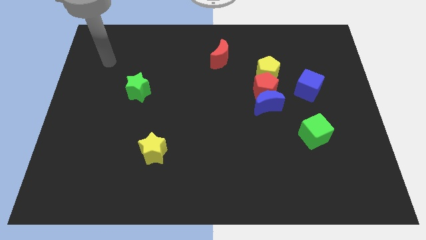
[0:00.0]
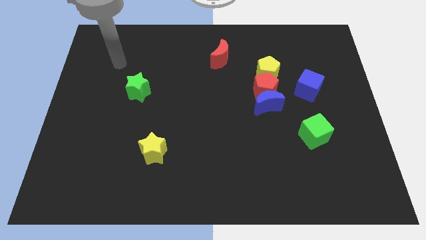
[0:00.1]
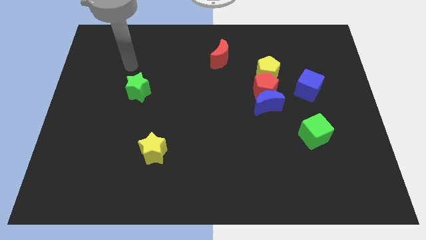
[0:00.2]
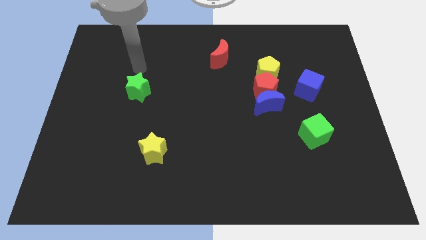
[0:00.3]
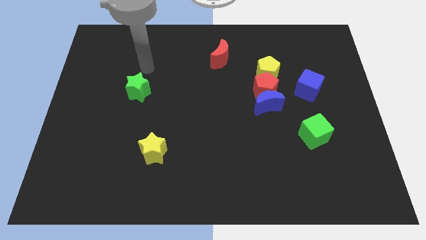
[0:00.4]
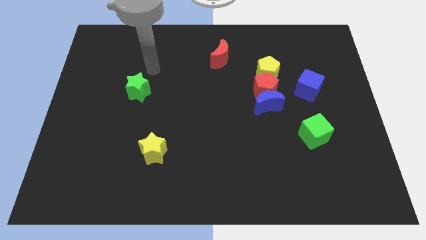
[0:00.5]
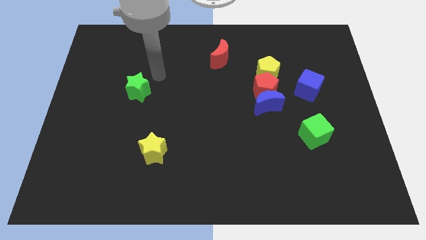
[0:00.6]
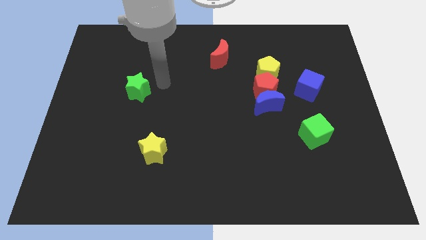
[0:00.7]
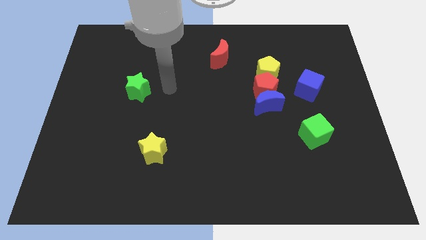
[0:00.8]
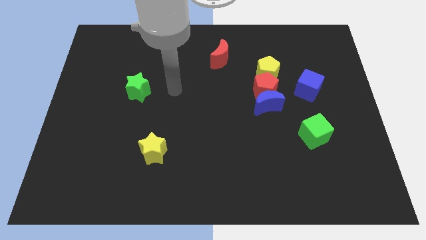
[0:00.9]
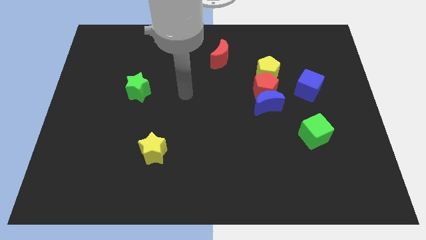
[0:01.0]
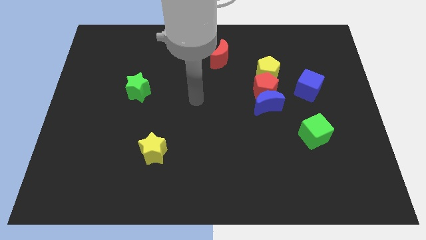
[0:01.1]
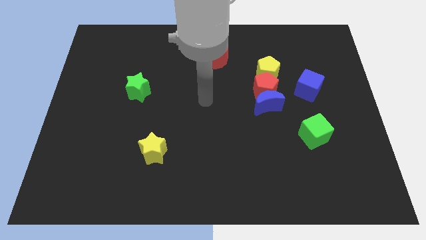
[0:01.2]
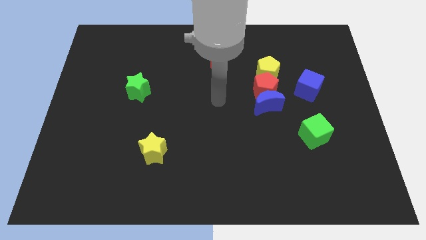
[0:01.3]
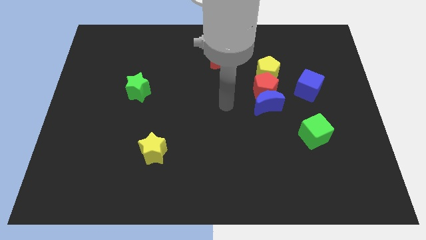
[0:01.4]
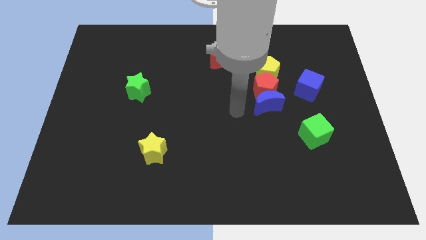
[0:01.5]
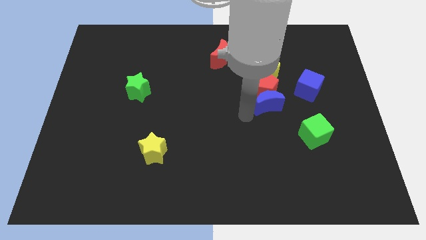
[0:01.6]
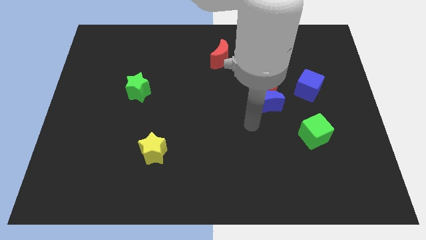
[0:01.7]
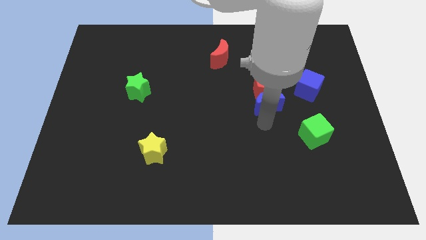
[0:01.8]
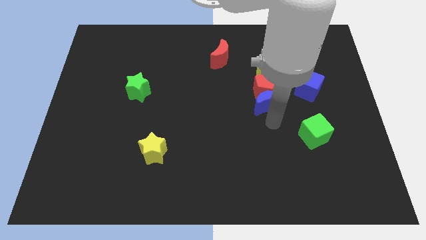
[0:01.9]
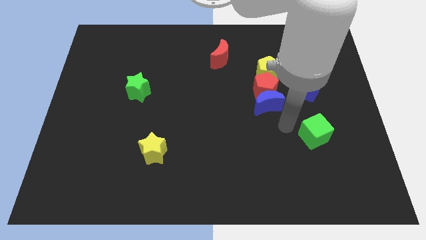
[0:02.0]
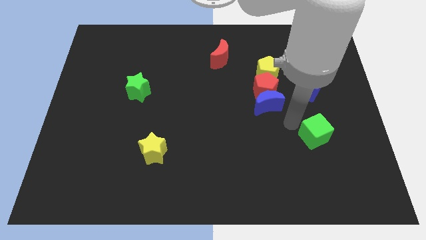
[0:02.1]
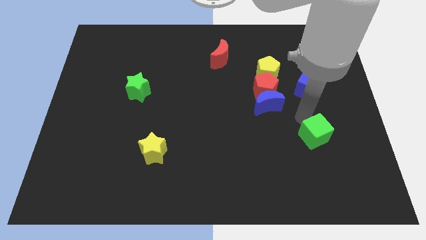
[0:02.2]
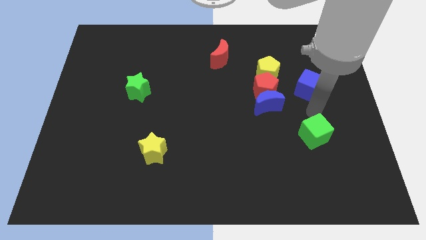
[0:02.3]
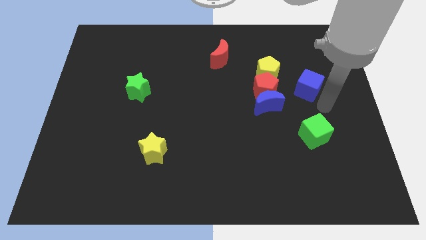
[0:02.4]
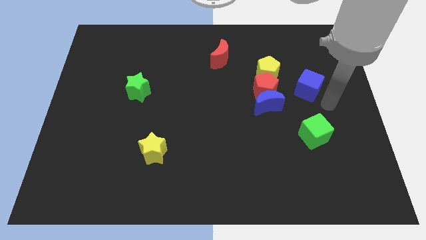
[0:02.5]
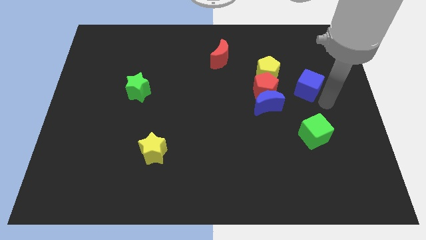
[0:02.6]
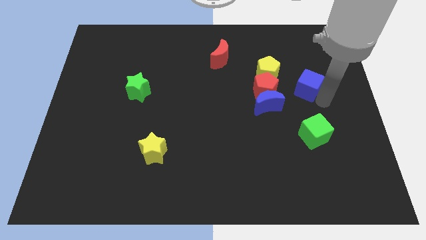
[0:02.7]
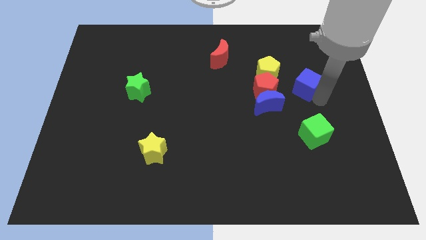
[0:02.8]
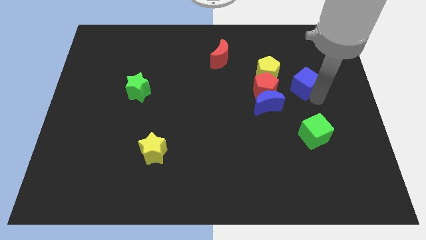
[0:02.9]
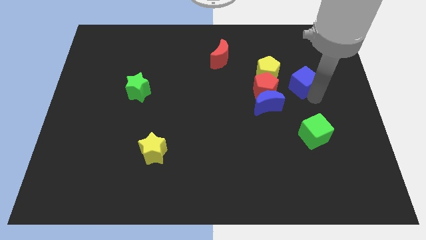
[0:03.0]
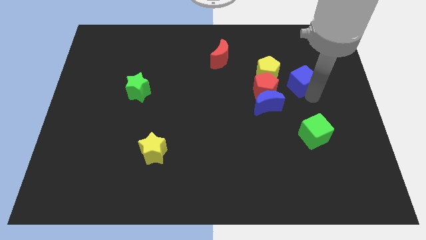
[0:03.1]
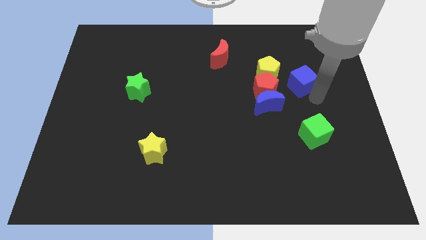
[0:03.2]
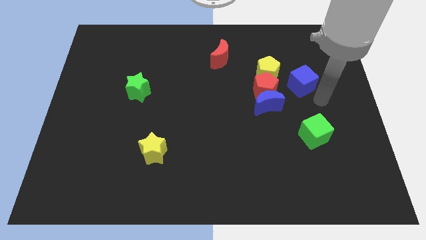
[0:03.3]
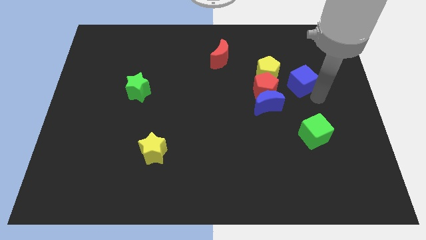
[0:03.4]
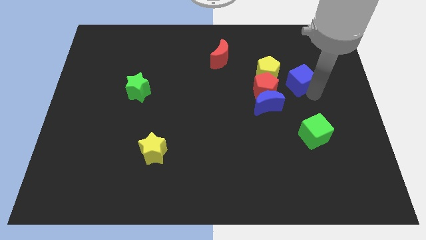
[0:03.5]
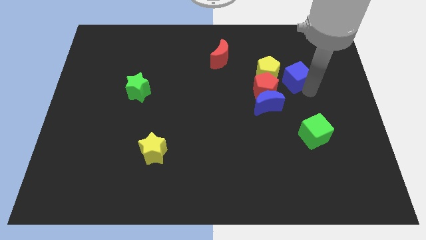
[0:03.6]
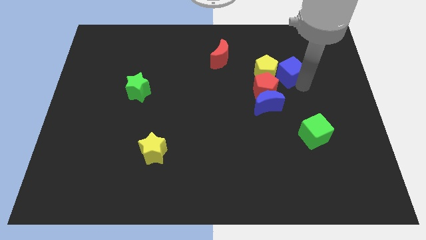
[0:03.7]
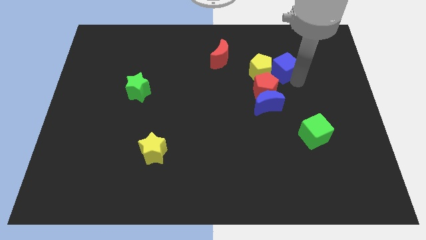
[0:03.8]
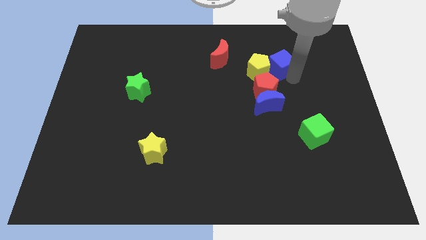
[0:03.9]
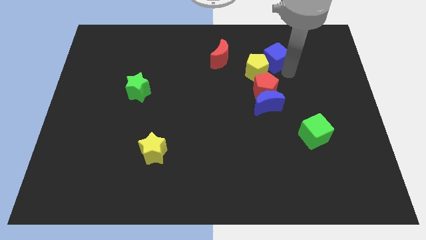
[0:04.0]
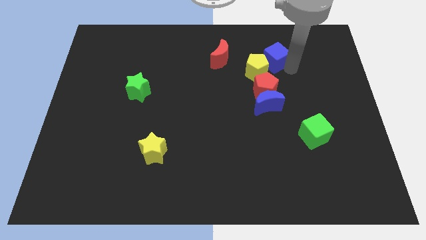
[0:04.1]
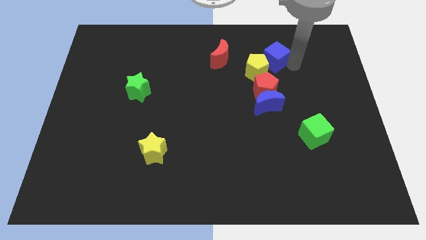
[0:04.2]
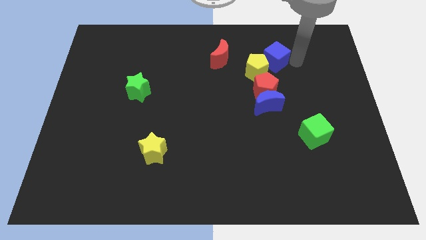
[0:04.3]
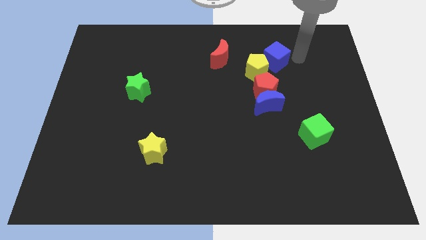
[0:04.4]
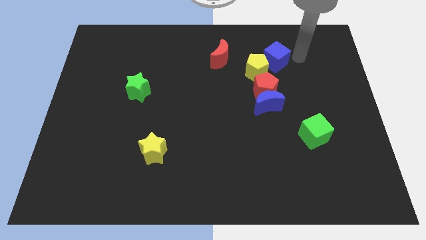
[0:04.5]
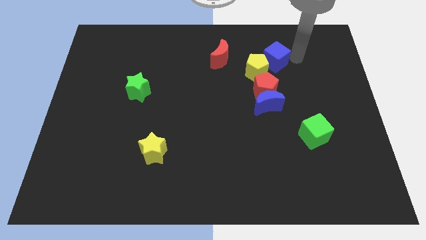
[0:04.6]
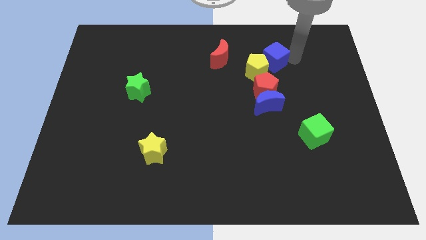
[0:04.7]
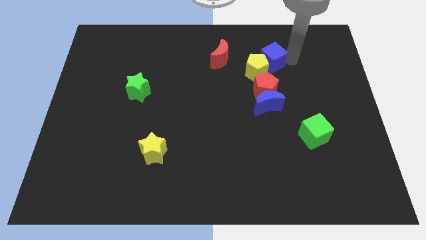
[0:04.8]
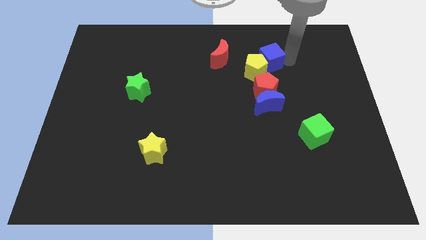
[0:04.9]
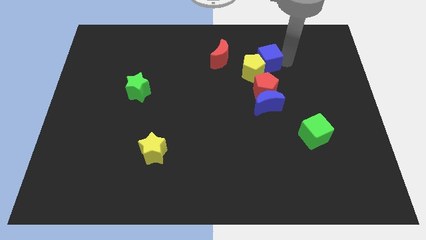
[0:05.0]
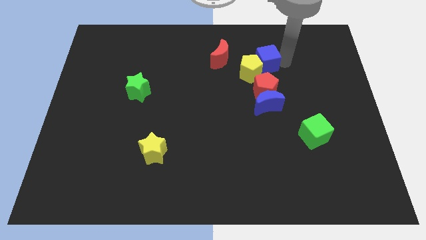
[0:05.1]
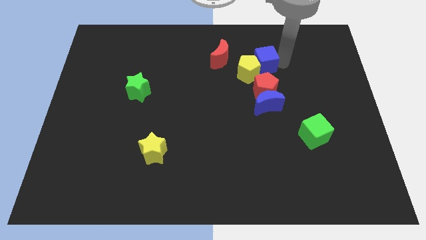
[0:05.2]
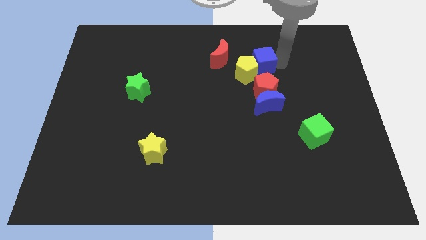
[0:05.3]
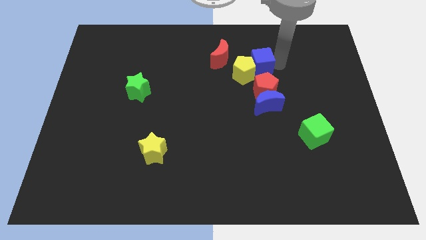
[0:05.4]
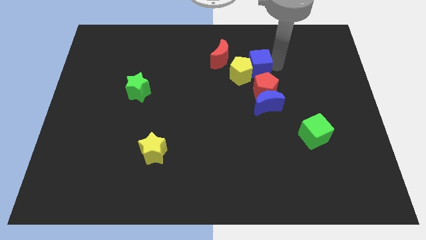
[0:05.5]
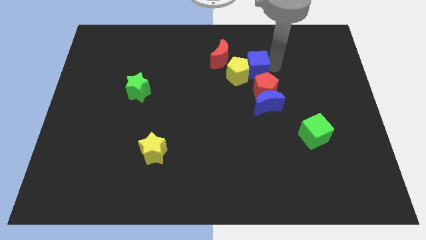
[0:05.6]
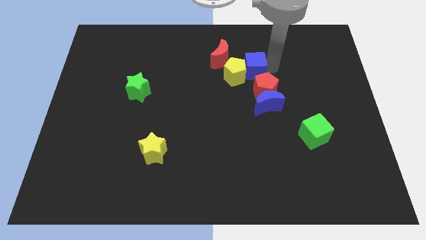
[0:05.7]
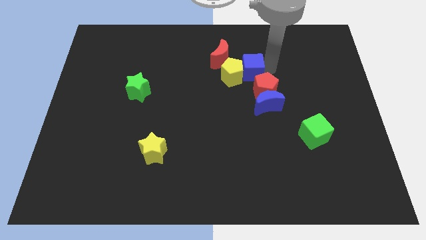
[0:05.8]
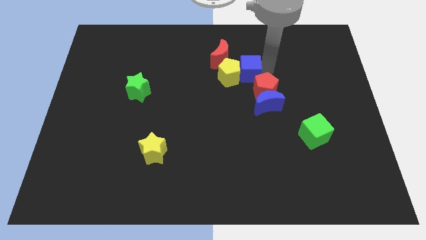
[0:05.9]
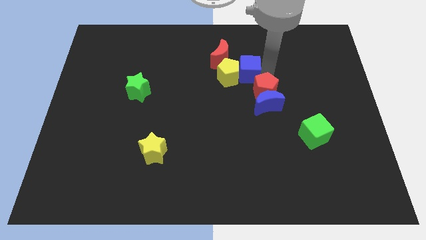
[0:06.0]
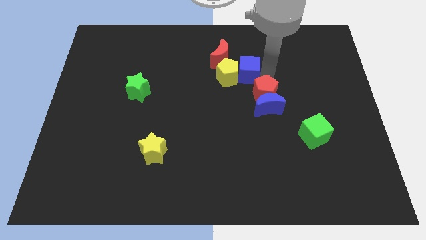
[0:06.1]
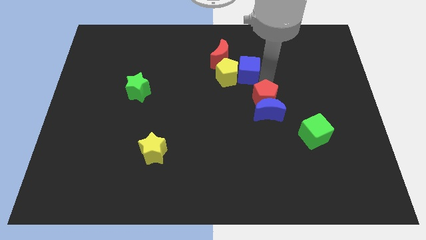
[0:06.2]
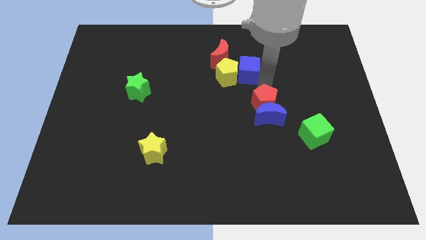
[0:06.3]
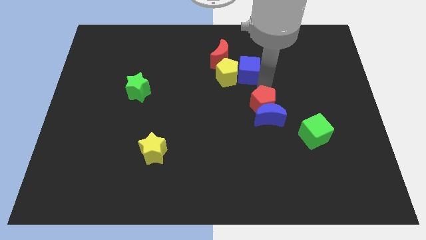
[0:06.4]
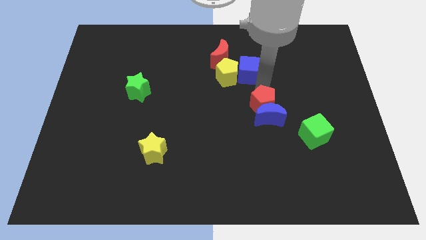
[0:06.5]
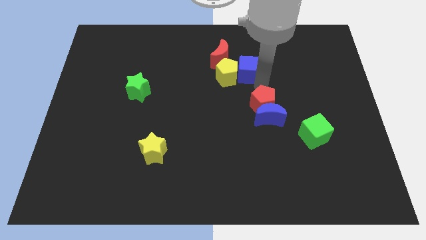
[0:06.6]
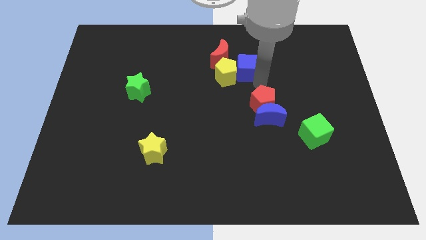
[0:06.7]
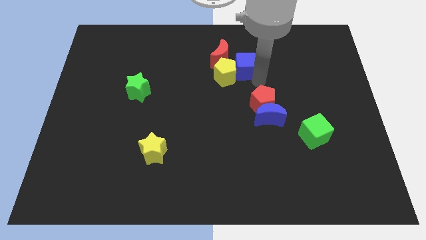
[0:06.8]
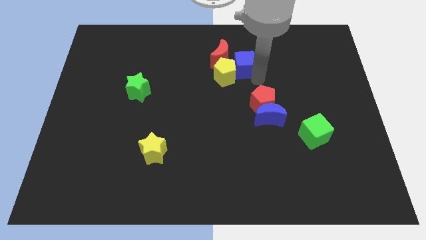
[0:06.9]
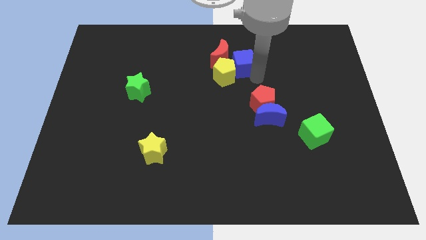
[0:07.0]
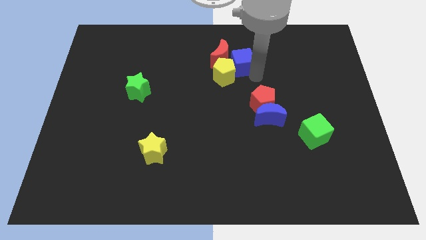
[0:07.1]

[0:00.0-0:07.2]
put the blue cube next to the red moon

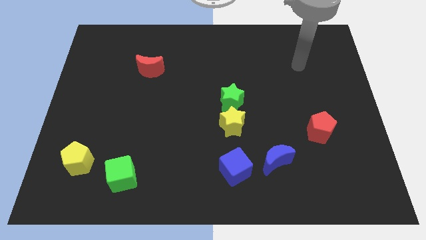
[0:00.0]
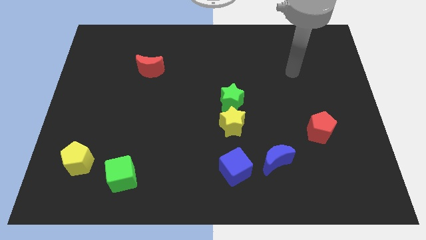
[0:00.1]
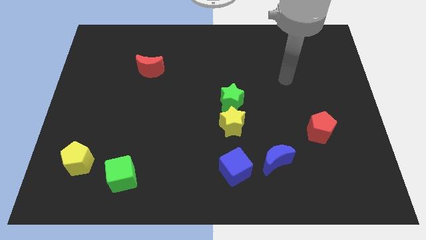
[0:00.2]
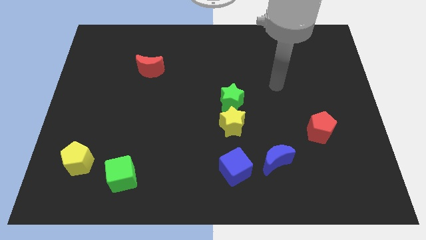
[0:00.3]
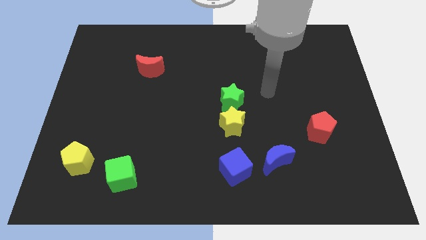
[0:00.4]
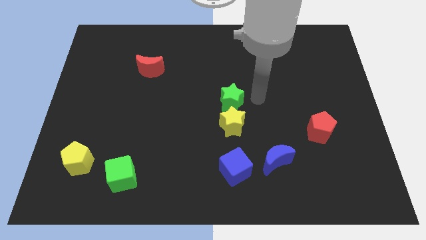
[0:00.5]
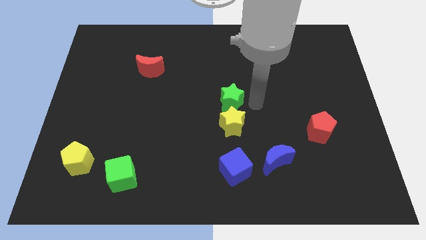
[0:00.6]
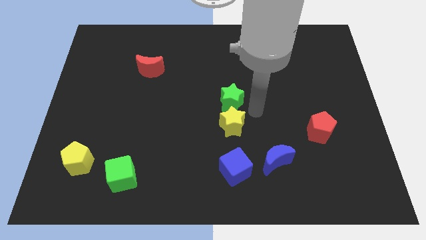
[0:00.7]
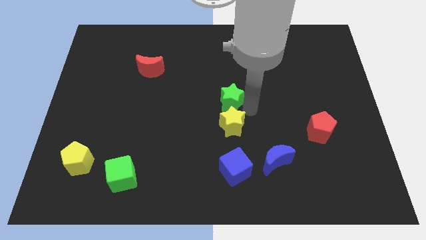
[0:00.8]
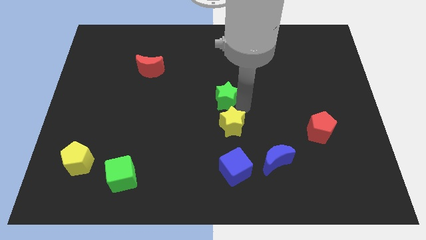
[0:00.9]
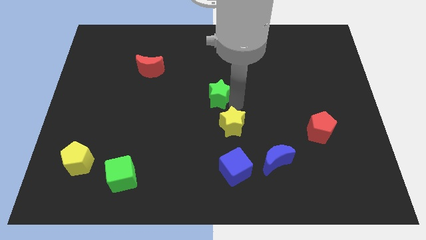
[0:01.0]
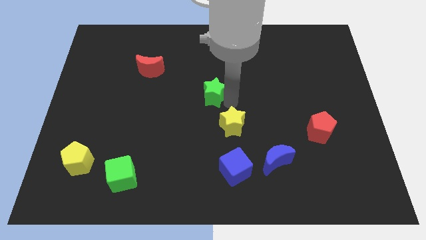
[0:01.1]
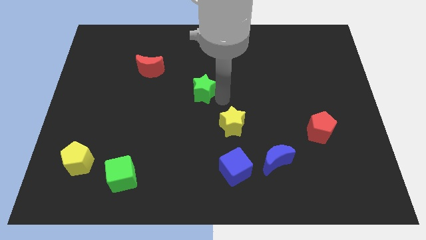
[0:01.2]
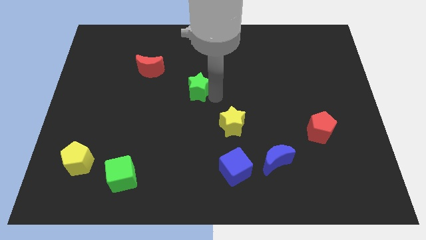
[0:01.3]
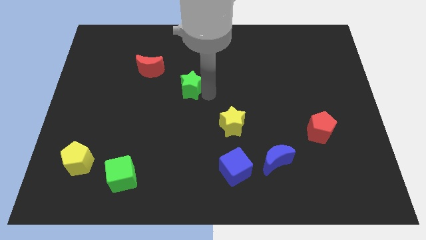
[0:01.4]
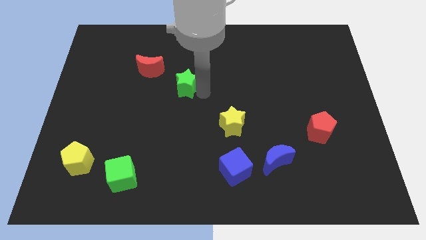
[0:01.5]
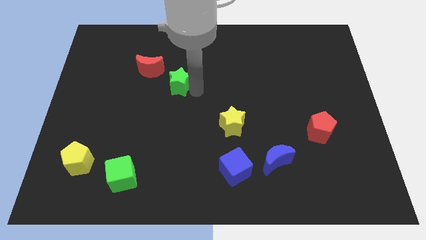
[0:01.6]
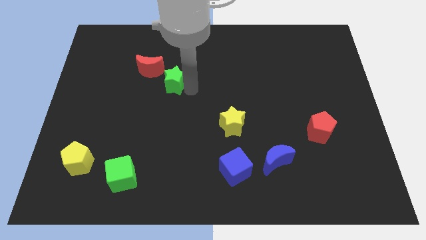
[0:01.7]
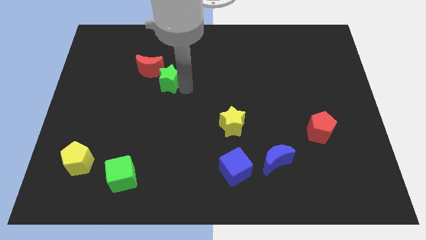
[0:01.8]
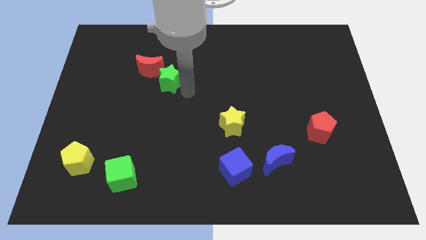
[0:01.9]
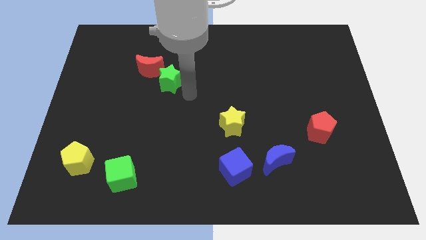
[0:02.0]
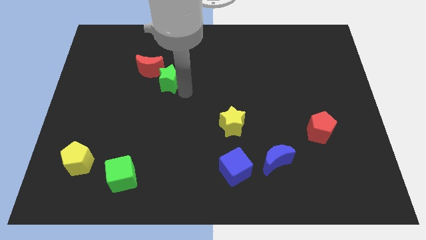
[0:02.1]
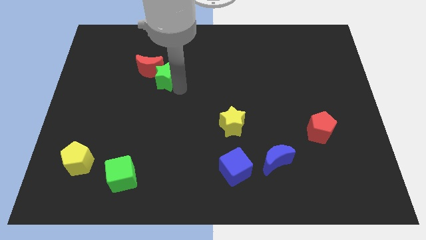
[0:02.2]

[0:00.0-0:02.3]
put the green star close to the red moon
